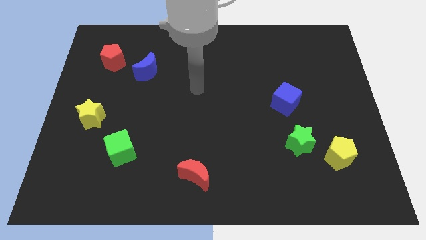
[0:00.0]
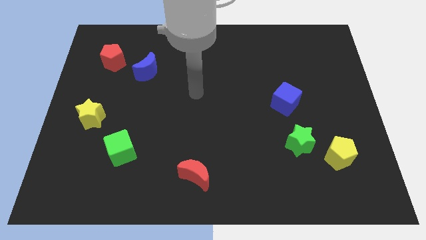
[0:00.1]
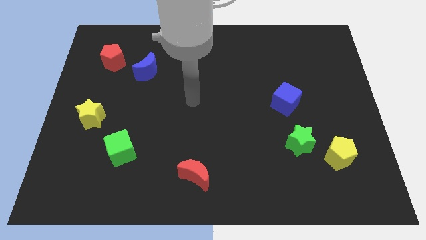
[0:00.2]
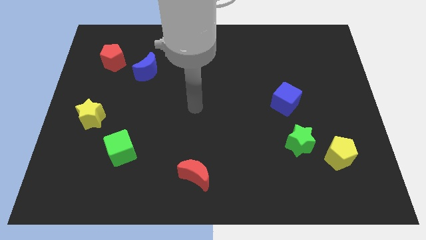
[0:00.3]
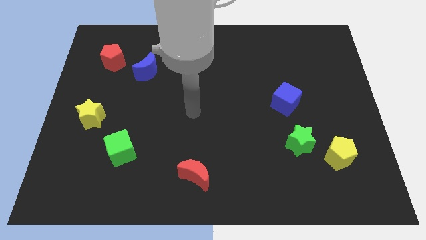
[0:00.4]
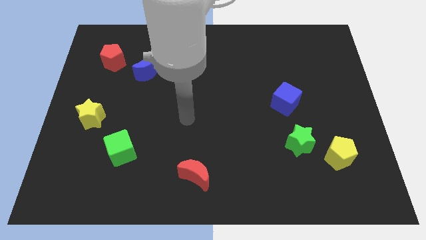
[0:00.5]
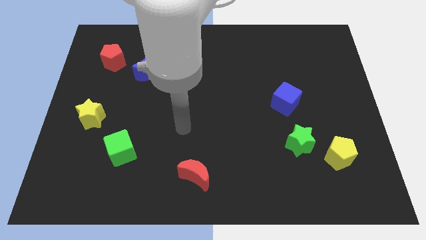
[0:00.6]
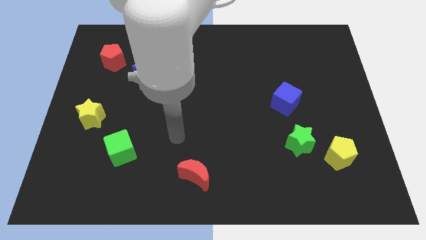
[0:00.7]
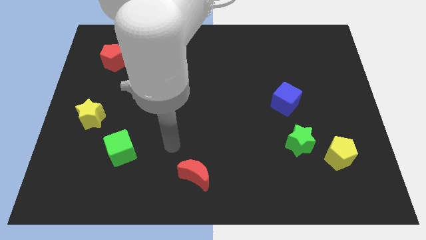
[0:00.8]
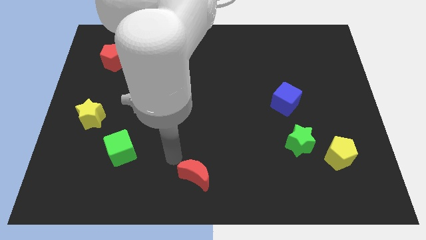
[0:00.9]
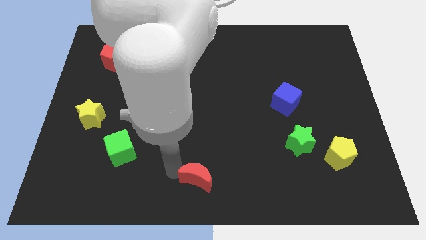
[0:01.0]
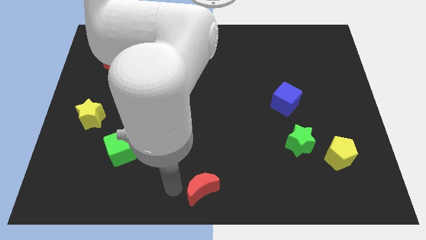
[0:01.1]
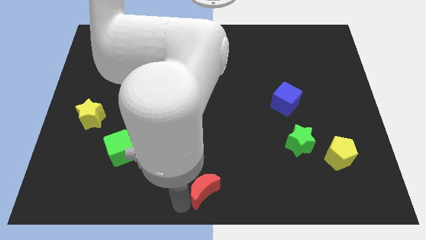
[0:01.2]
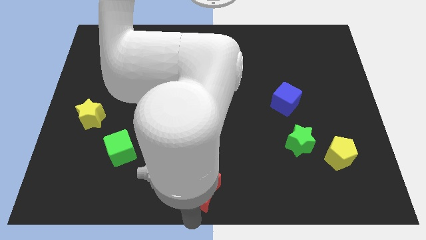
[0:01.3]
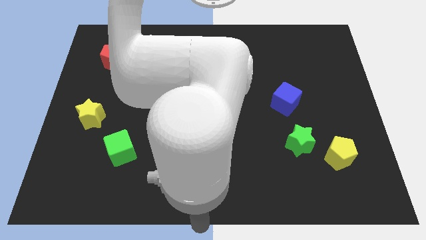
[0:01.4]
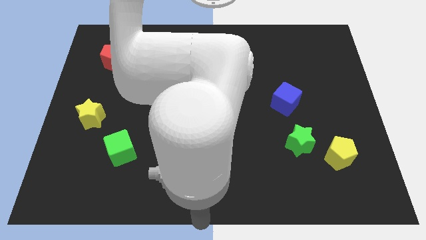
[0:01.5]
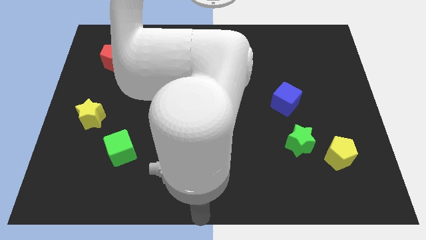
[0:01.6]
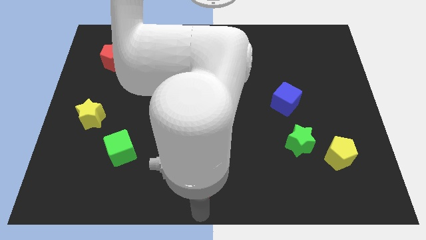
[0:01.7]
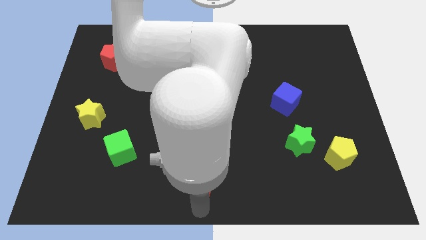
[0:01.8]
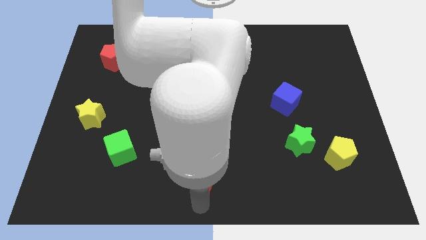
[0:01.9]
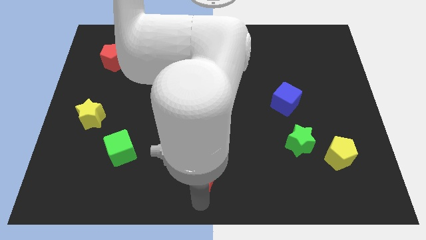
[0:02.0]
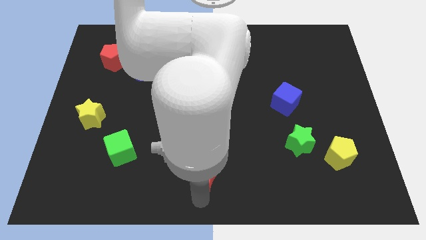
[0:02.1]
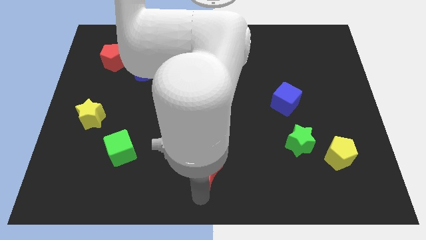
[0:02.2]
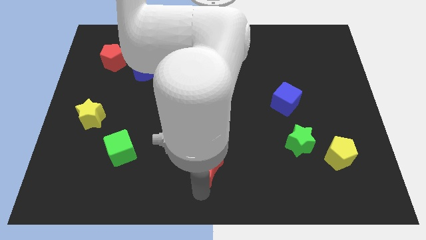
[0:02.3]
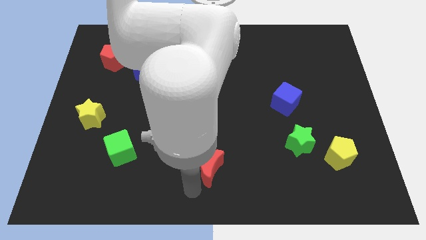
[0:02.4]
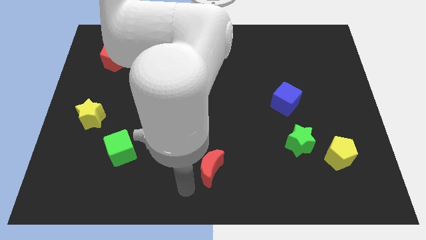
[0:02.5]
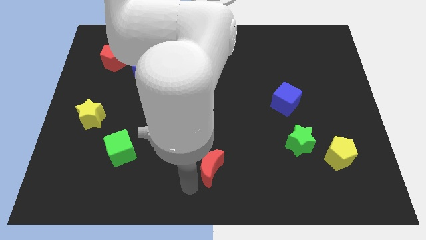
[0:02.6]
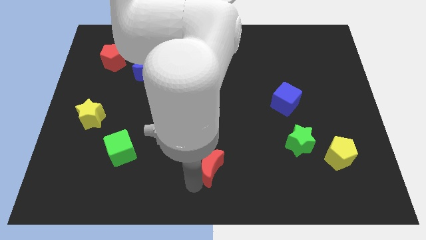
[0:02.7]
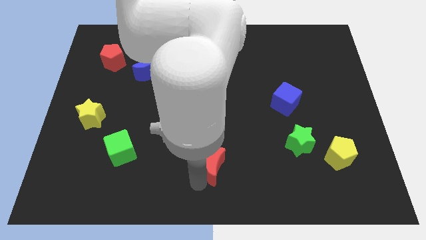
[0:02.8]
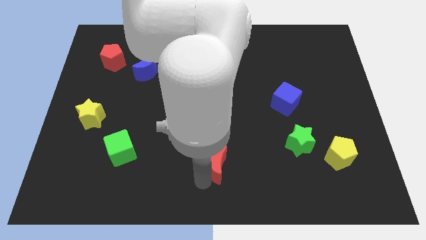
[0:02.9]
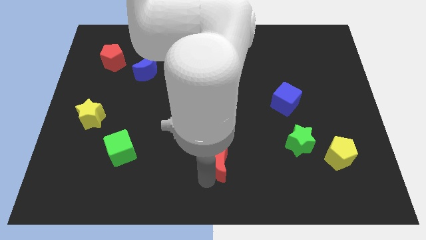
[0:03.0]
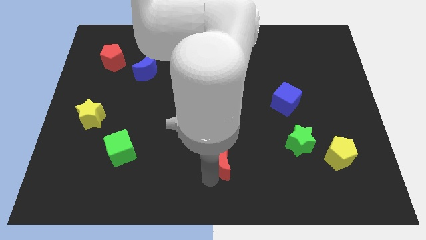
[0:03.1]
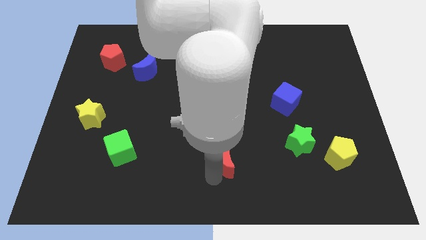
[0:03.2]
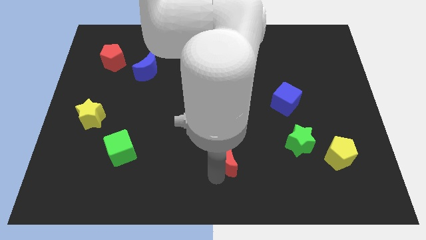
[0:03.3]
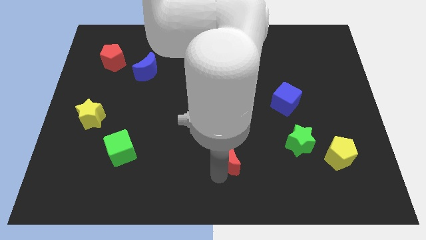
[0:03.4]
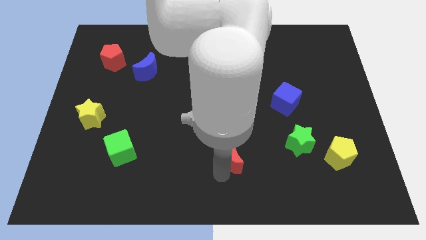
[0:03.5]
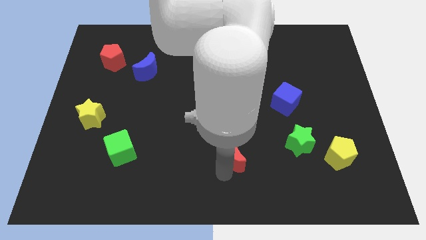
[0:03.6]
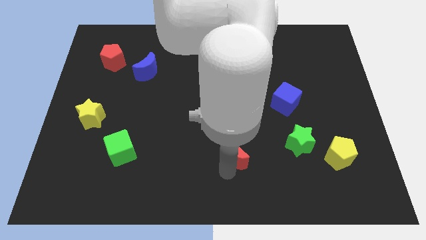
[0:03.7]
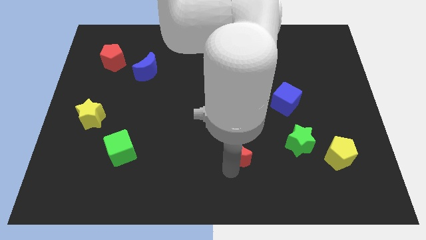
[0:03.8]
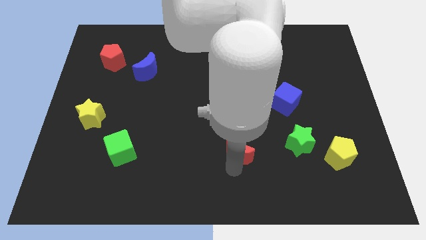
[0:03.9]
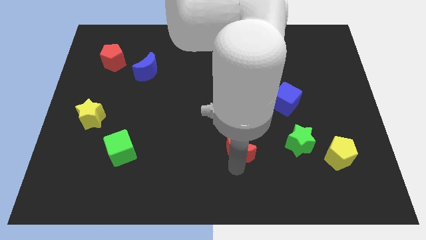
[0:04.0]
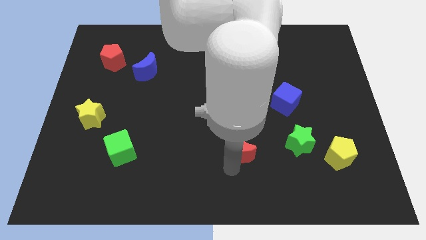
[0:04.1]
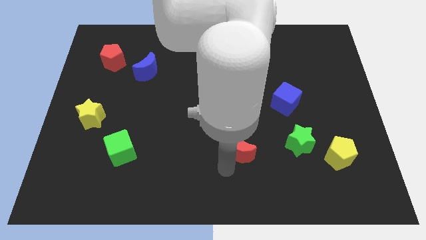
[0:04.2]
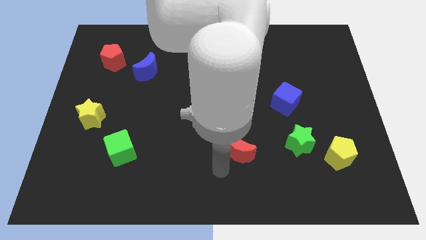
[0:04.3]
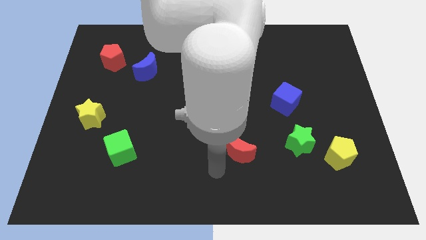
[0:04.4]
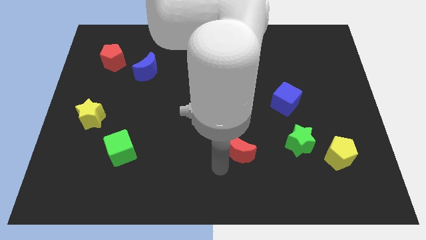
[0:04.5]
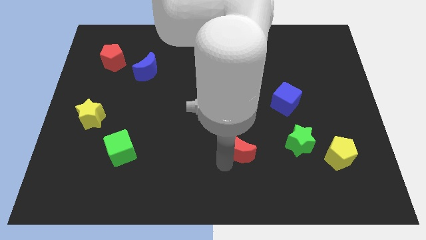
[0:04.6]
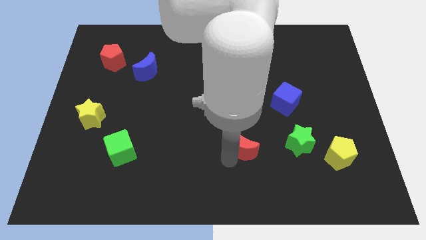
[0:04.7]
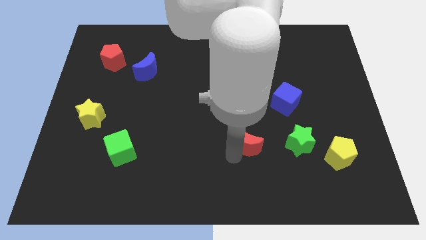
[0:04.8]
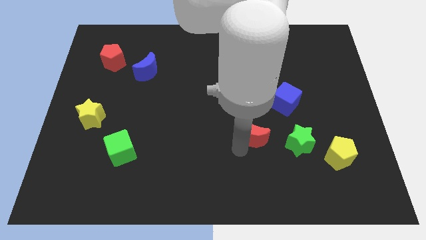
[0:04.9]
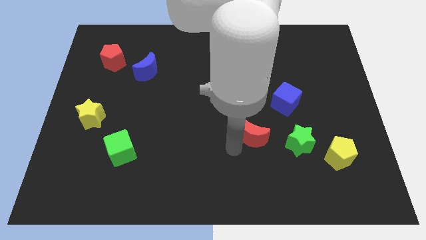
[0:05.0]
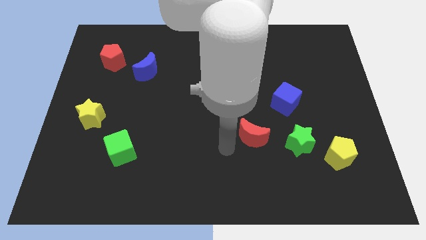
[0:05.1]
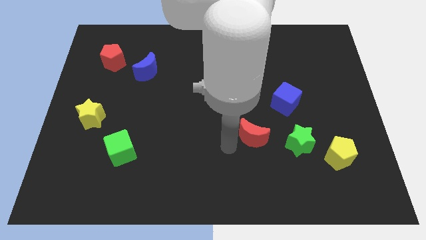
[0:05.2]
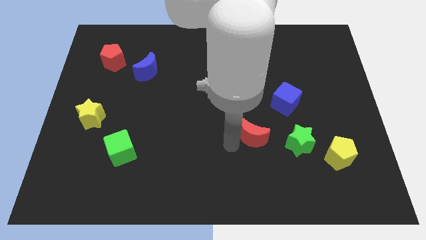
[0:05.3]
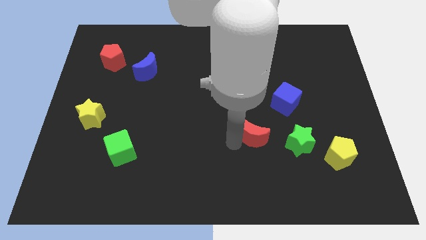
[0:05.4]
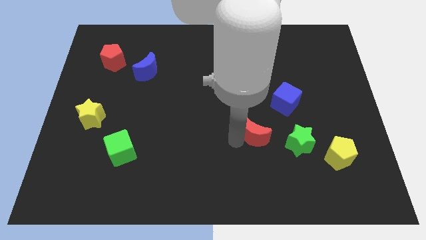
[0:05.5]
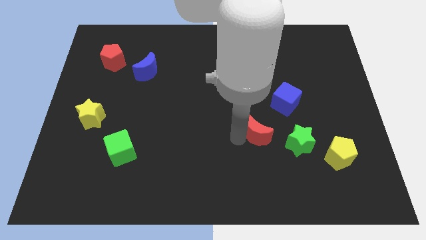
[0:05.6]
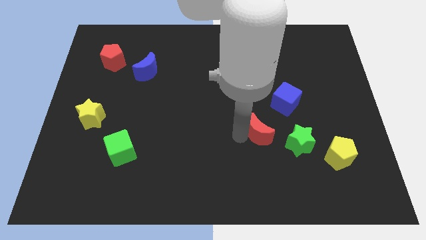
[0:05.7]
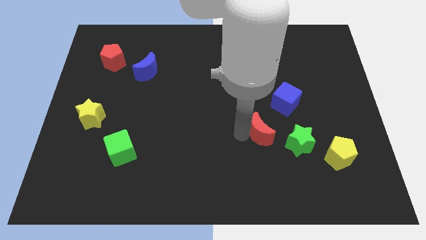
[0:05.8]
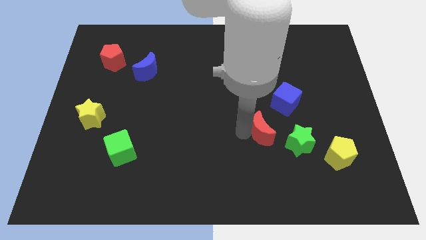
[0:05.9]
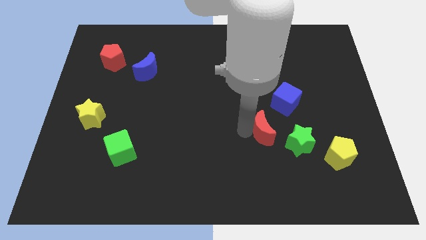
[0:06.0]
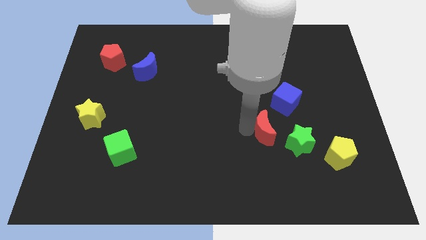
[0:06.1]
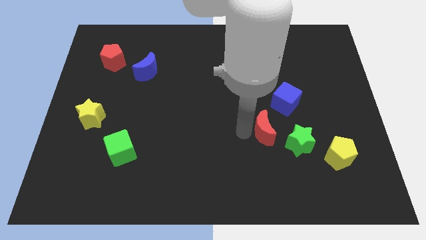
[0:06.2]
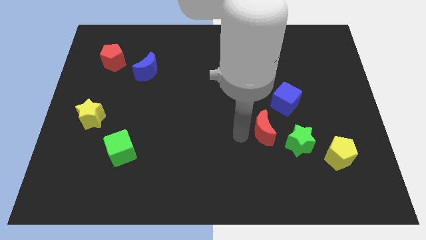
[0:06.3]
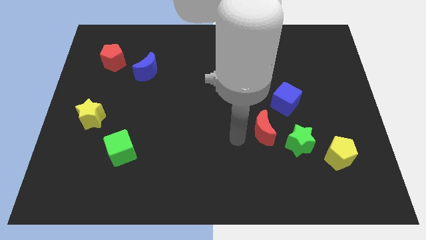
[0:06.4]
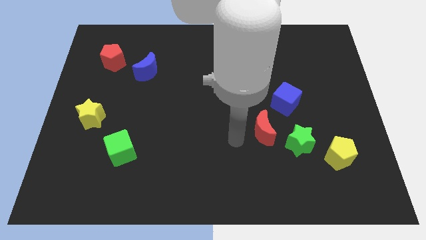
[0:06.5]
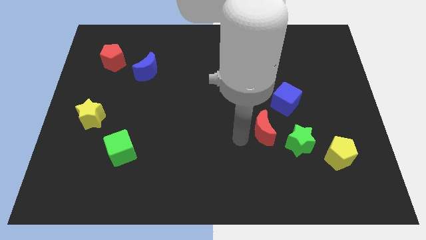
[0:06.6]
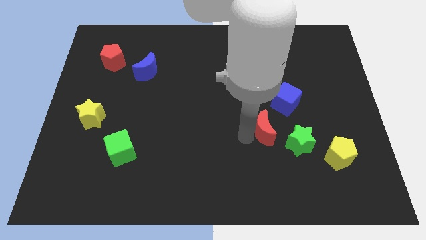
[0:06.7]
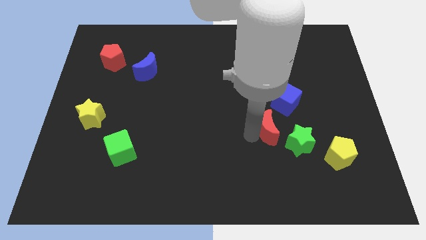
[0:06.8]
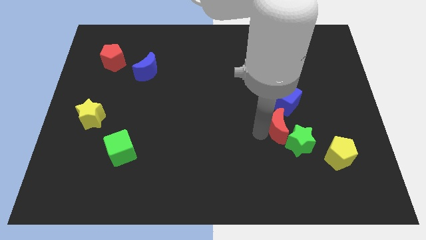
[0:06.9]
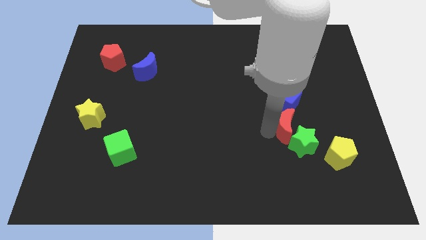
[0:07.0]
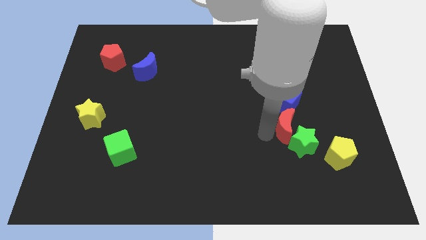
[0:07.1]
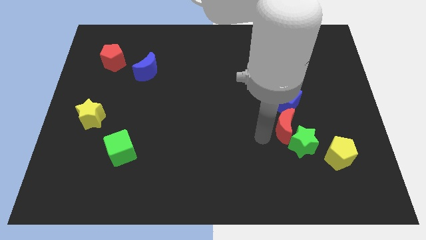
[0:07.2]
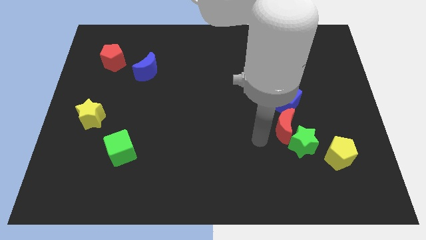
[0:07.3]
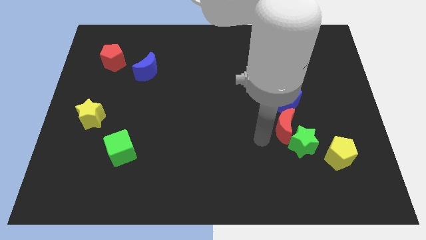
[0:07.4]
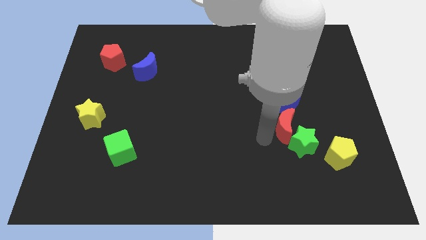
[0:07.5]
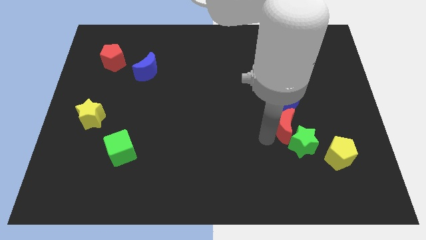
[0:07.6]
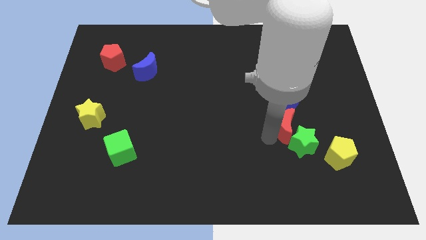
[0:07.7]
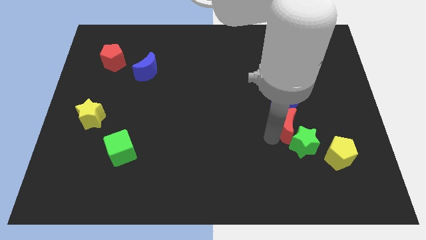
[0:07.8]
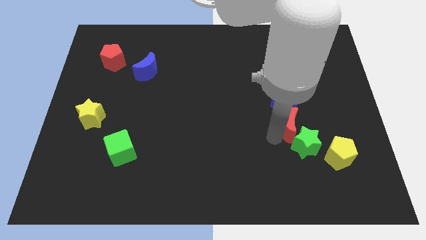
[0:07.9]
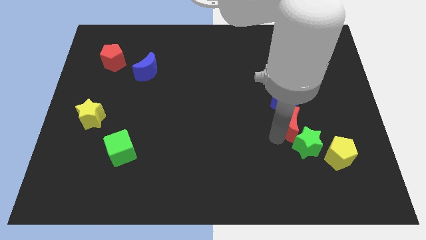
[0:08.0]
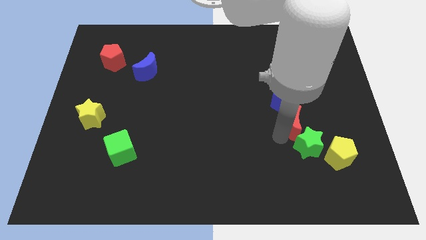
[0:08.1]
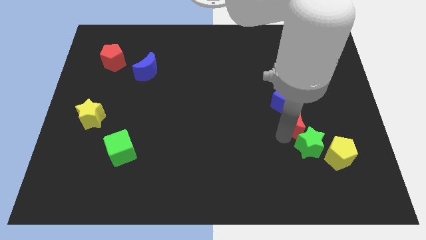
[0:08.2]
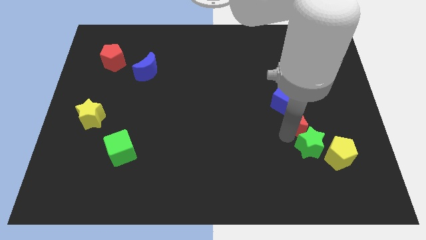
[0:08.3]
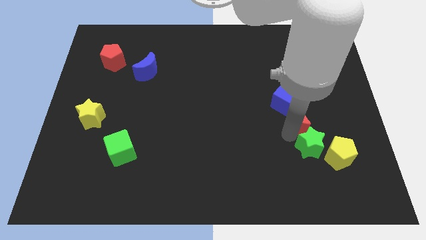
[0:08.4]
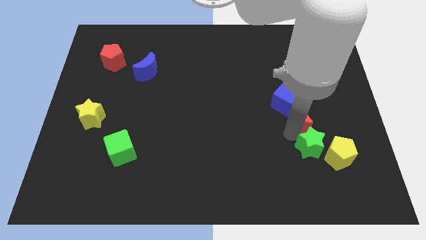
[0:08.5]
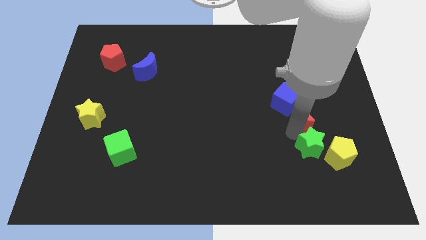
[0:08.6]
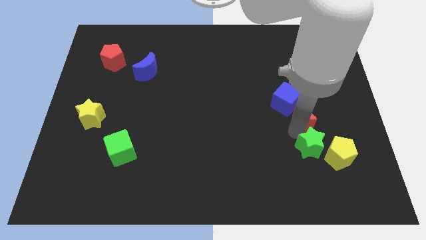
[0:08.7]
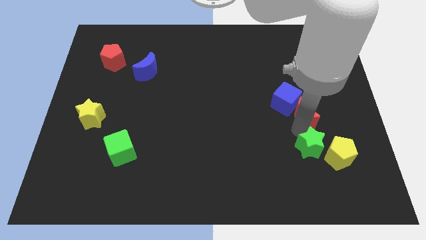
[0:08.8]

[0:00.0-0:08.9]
push the red moon just right of the blue cube
